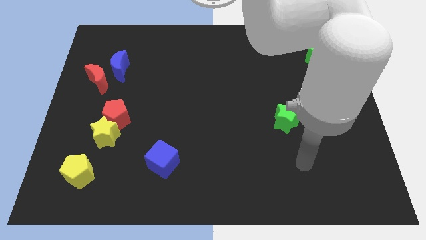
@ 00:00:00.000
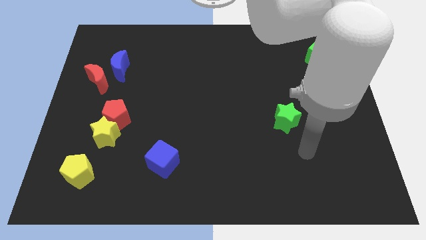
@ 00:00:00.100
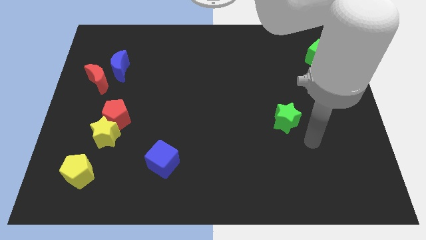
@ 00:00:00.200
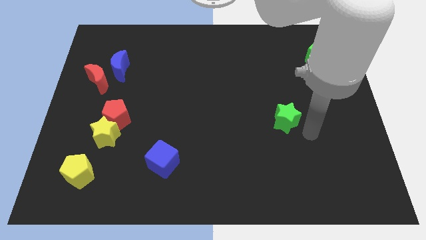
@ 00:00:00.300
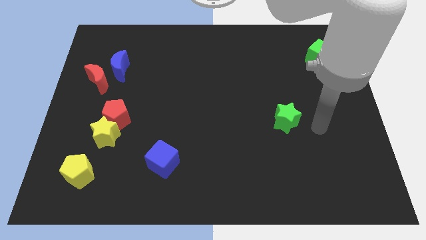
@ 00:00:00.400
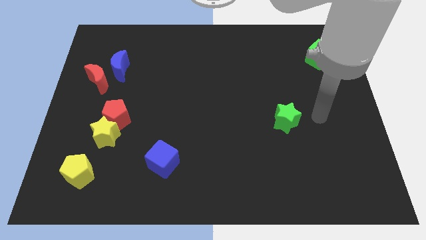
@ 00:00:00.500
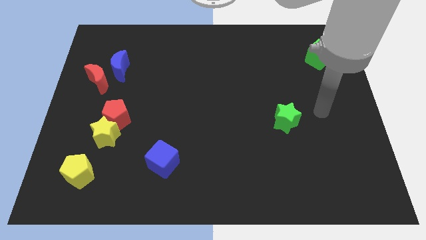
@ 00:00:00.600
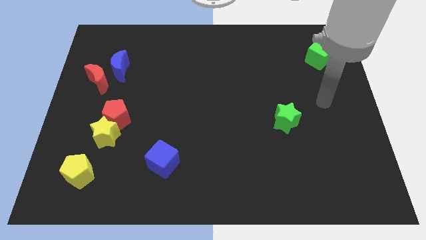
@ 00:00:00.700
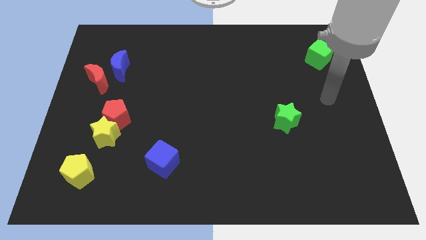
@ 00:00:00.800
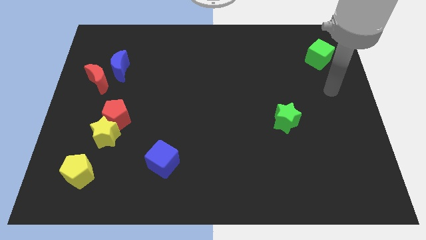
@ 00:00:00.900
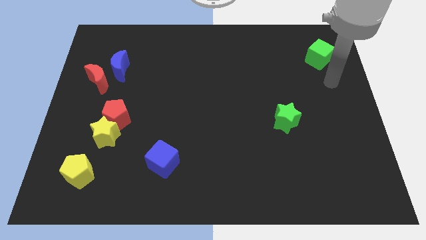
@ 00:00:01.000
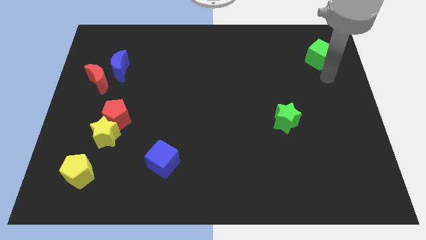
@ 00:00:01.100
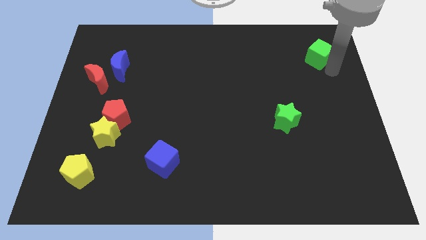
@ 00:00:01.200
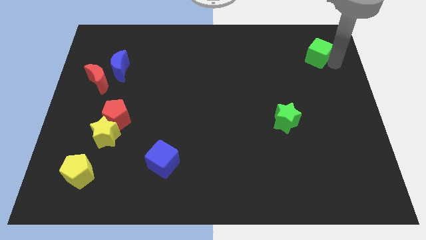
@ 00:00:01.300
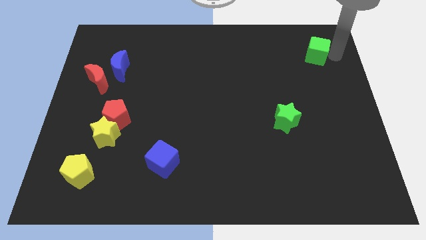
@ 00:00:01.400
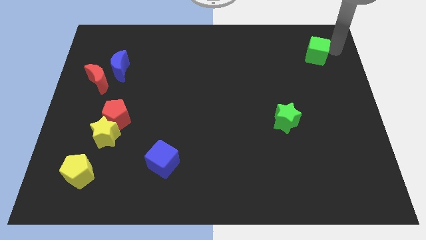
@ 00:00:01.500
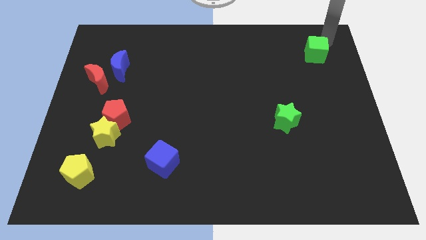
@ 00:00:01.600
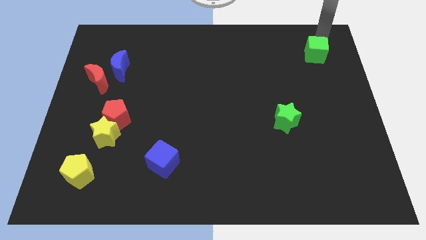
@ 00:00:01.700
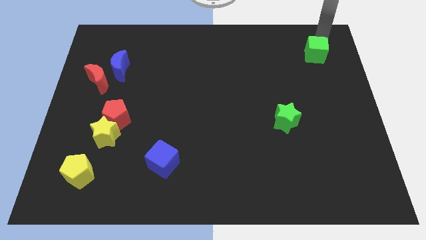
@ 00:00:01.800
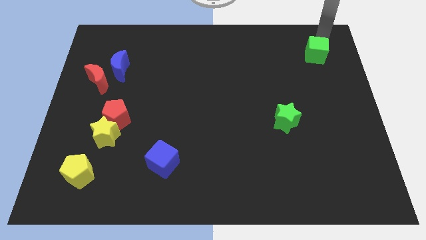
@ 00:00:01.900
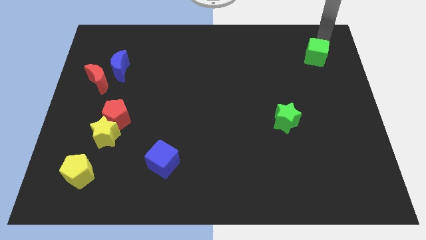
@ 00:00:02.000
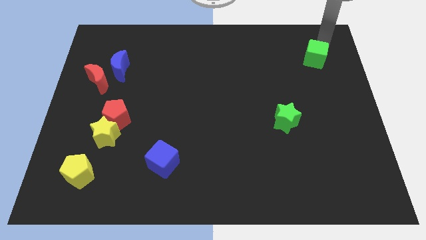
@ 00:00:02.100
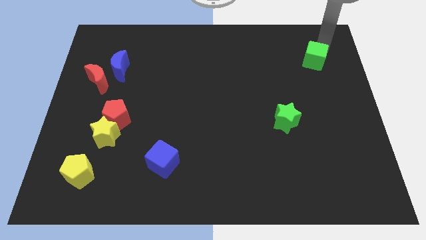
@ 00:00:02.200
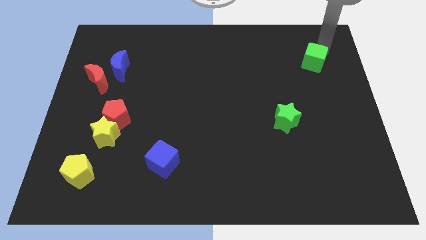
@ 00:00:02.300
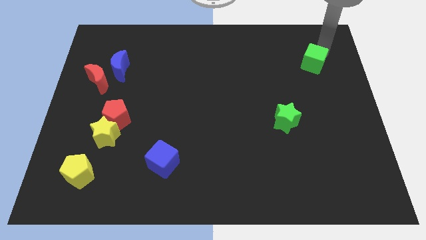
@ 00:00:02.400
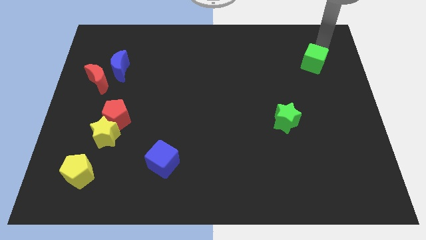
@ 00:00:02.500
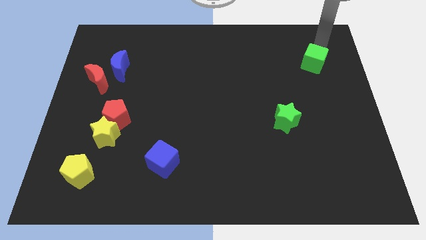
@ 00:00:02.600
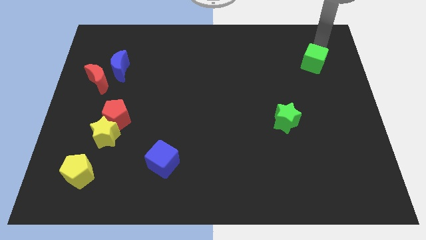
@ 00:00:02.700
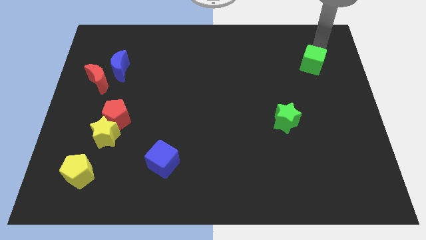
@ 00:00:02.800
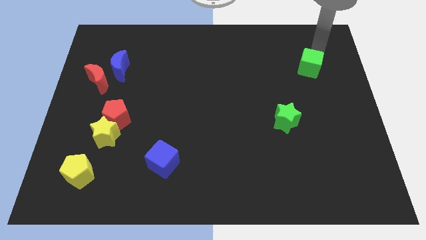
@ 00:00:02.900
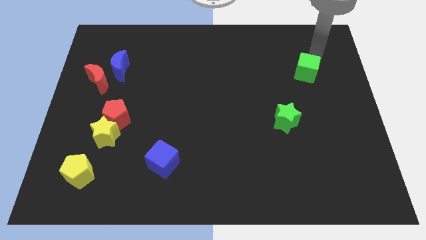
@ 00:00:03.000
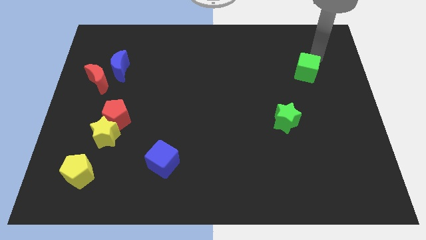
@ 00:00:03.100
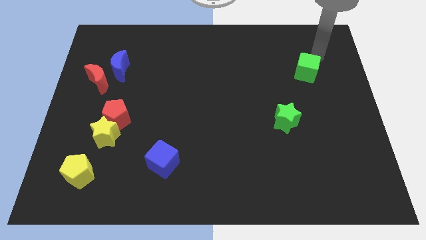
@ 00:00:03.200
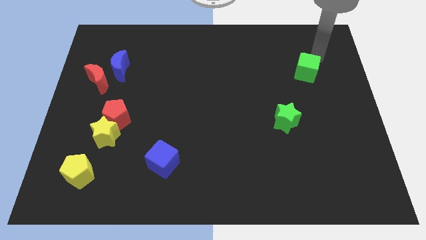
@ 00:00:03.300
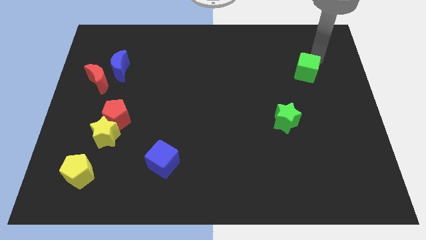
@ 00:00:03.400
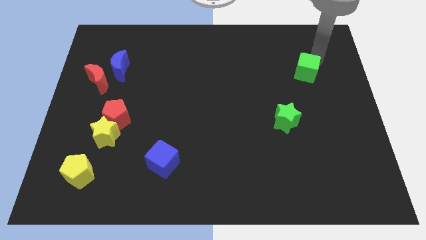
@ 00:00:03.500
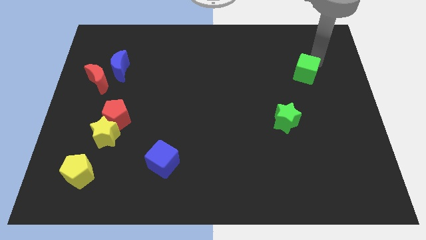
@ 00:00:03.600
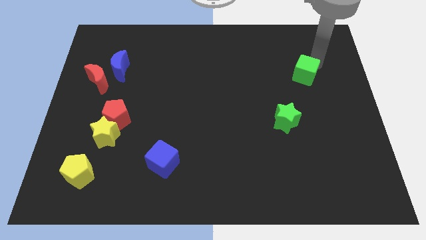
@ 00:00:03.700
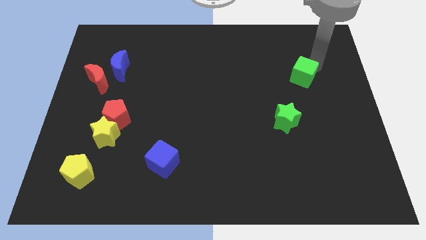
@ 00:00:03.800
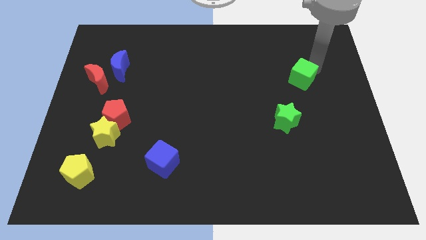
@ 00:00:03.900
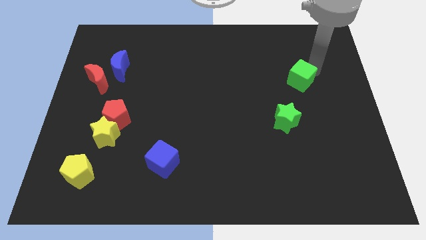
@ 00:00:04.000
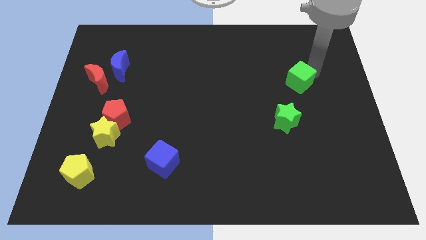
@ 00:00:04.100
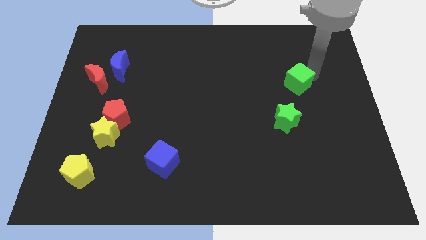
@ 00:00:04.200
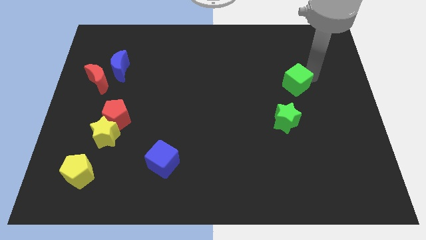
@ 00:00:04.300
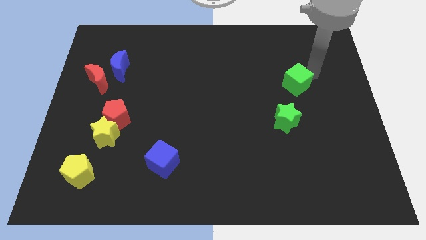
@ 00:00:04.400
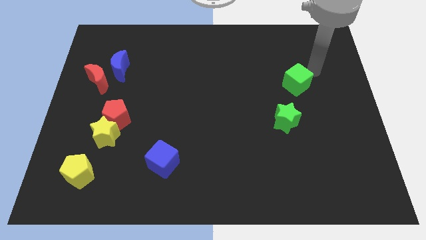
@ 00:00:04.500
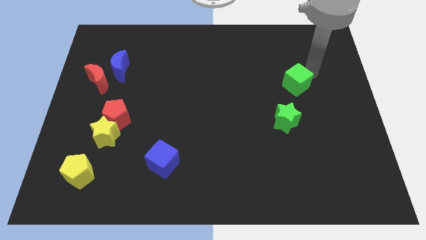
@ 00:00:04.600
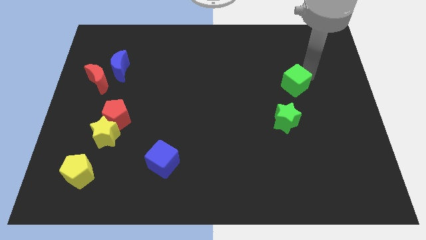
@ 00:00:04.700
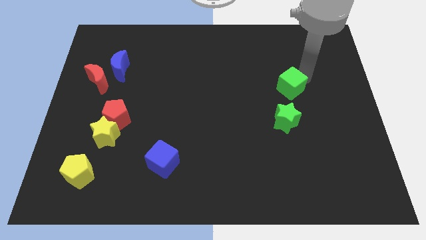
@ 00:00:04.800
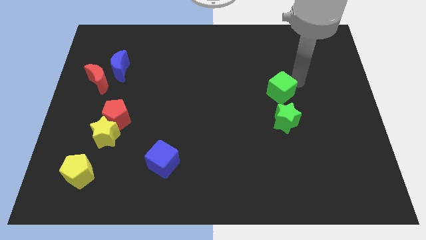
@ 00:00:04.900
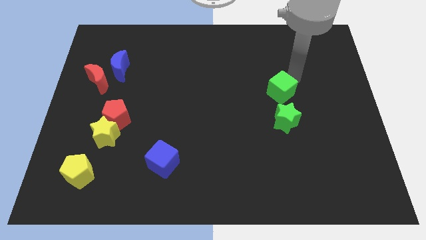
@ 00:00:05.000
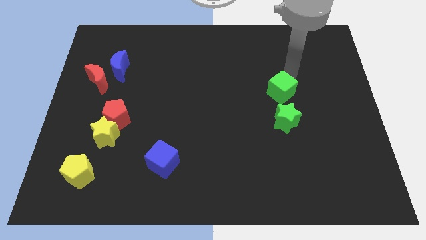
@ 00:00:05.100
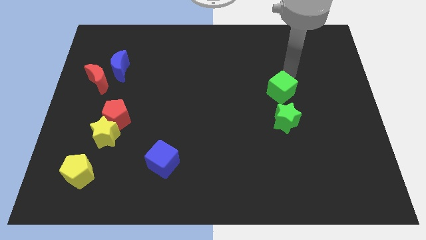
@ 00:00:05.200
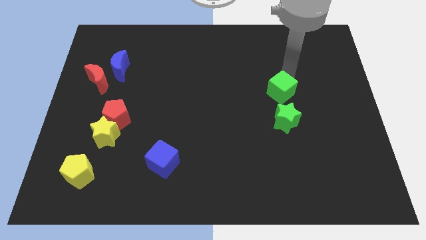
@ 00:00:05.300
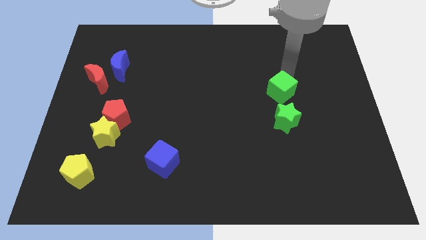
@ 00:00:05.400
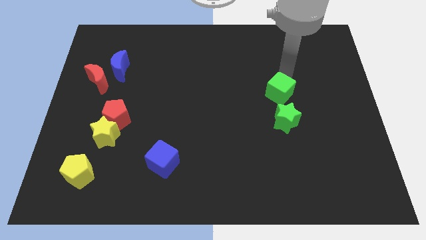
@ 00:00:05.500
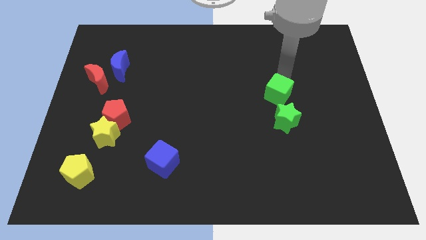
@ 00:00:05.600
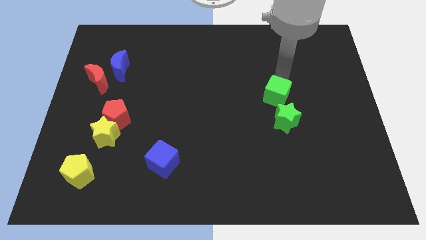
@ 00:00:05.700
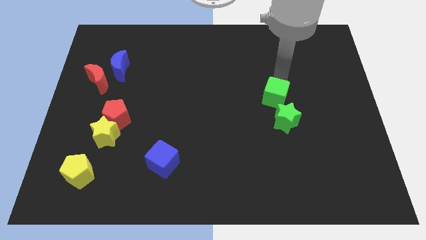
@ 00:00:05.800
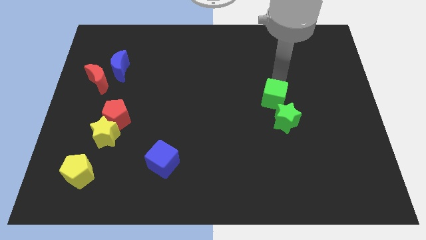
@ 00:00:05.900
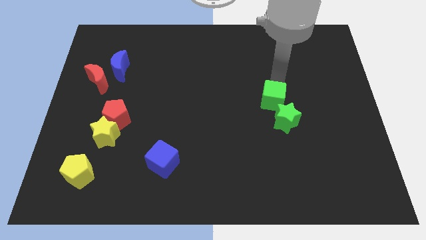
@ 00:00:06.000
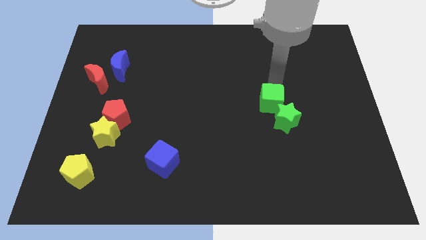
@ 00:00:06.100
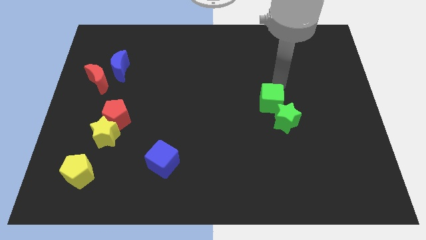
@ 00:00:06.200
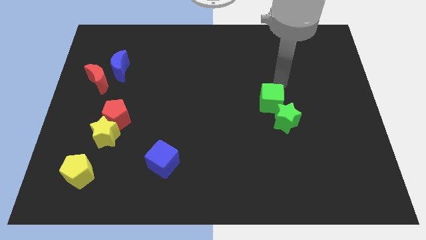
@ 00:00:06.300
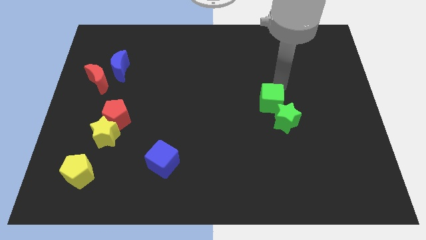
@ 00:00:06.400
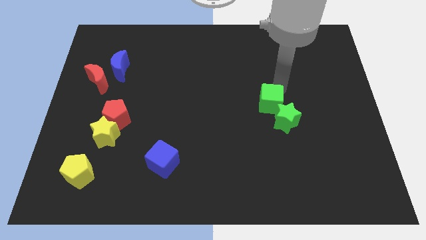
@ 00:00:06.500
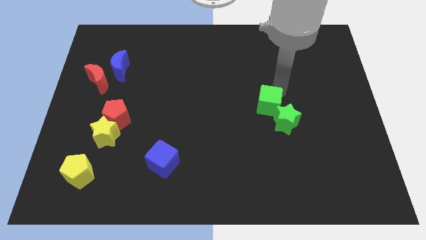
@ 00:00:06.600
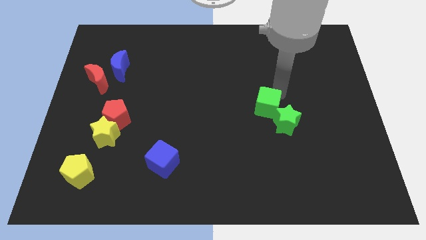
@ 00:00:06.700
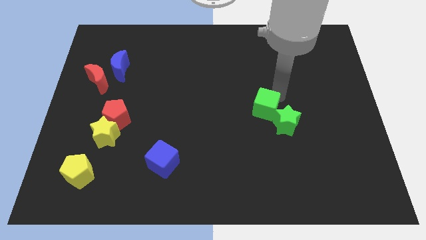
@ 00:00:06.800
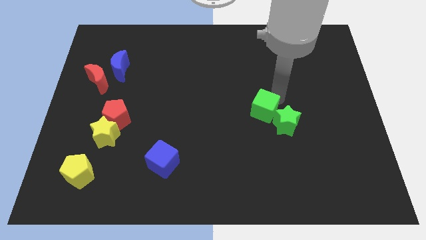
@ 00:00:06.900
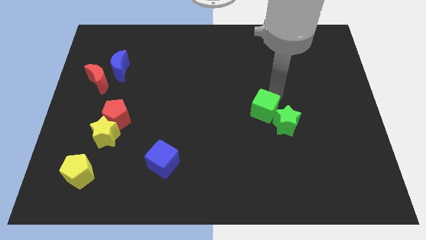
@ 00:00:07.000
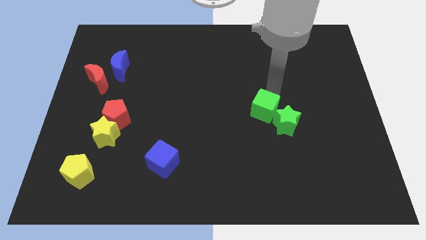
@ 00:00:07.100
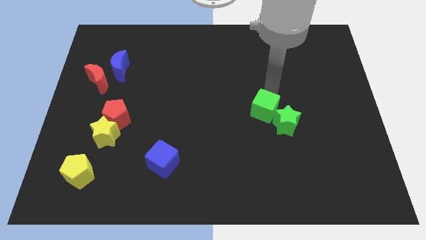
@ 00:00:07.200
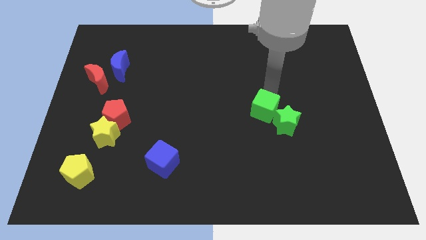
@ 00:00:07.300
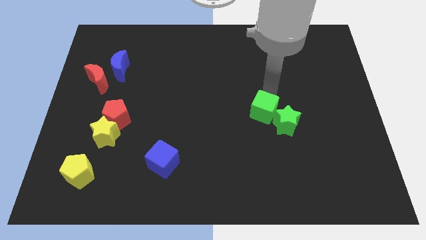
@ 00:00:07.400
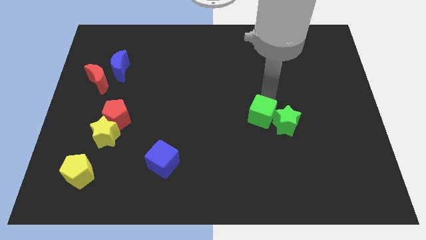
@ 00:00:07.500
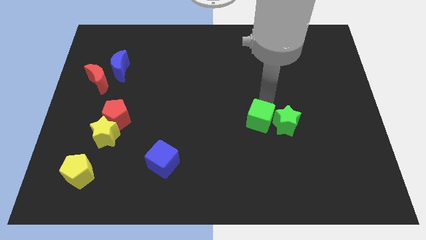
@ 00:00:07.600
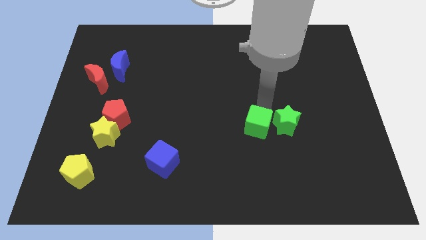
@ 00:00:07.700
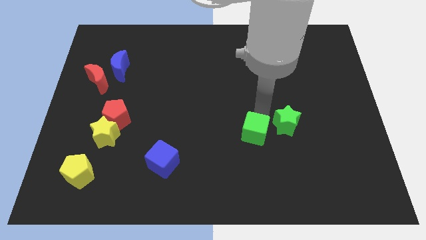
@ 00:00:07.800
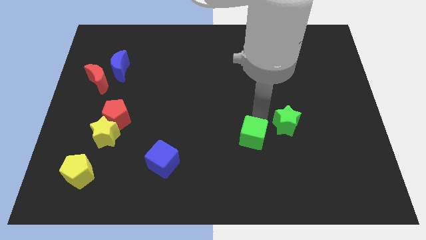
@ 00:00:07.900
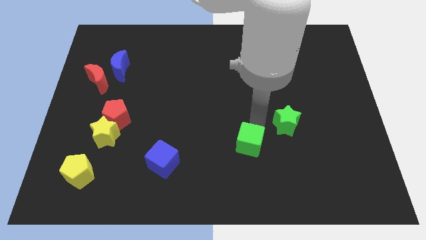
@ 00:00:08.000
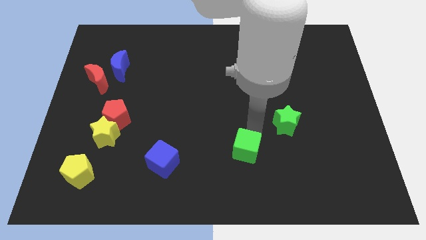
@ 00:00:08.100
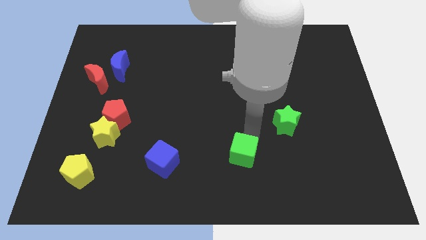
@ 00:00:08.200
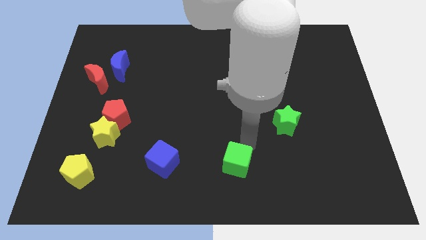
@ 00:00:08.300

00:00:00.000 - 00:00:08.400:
move the green cube to the bottom
